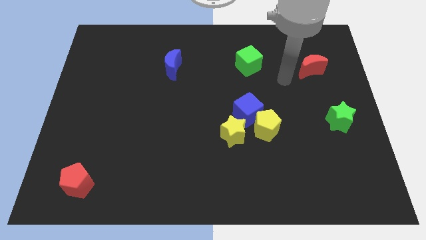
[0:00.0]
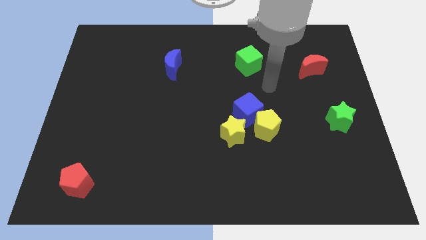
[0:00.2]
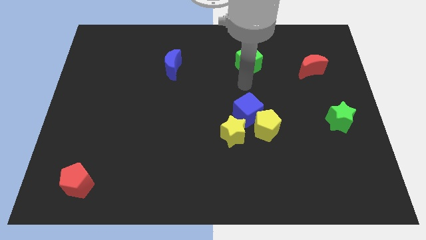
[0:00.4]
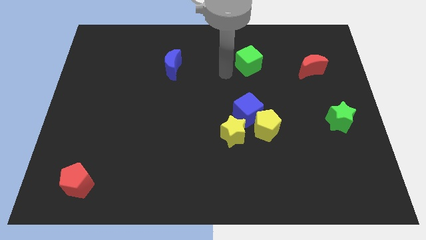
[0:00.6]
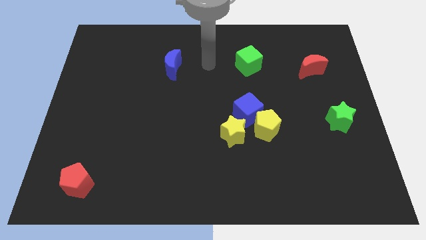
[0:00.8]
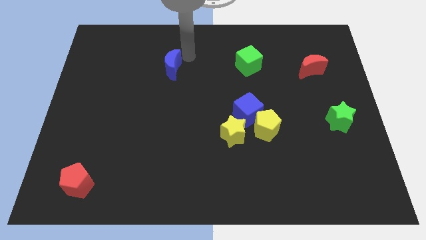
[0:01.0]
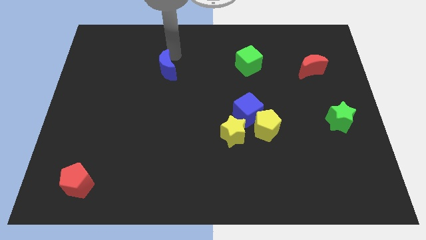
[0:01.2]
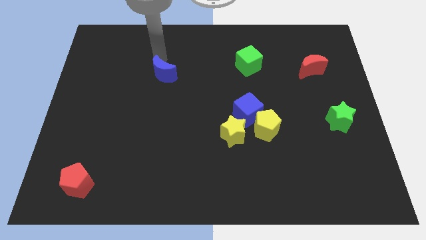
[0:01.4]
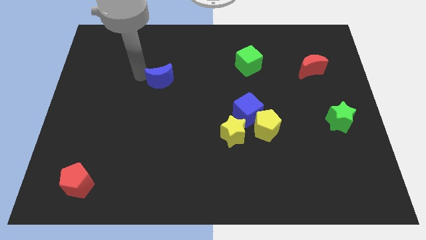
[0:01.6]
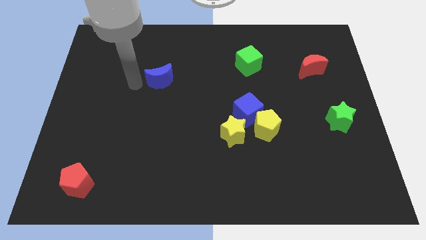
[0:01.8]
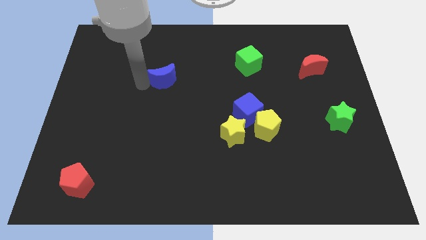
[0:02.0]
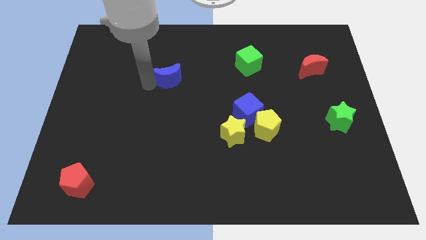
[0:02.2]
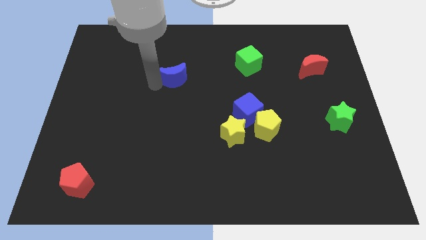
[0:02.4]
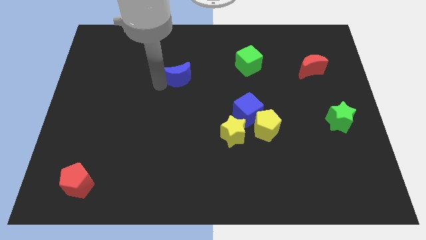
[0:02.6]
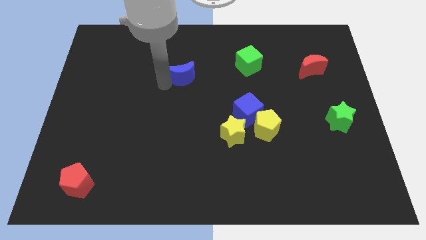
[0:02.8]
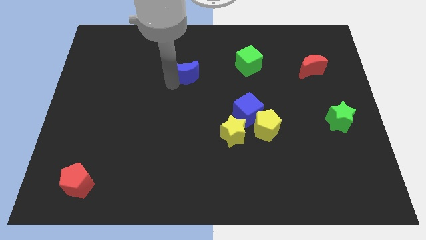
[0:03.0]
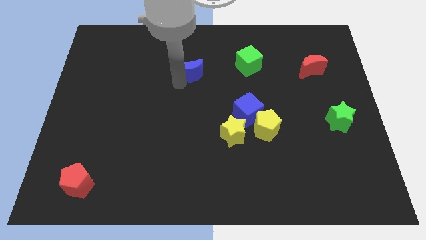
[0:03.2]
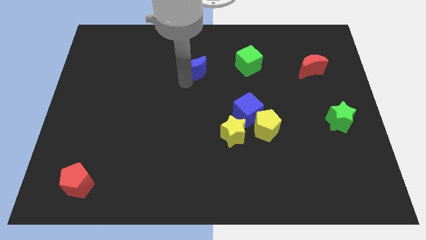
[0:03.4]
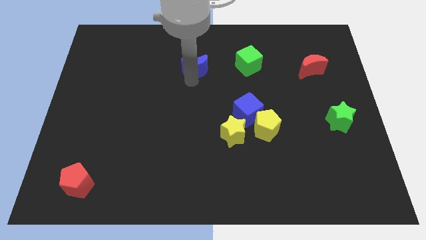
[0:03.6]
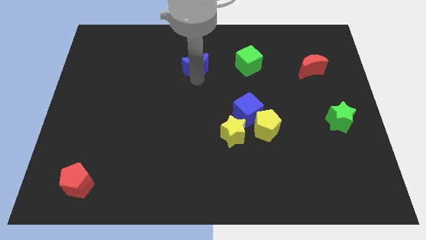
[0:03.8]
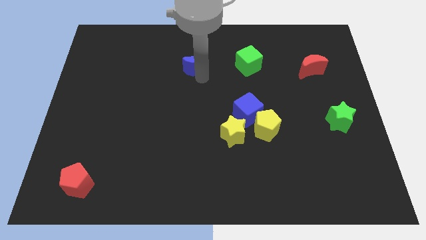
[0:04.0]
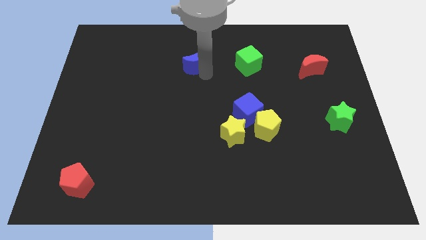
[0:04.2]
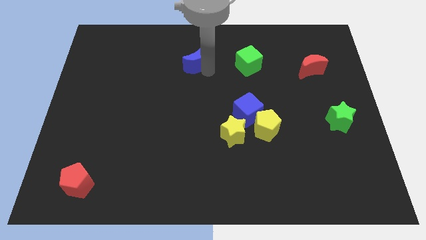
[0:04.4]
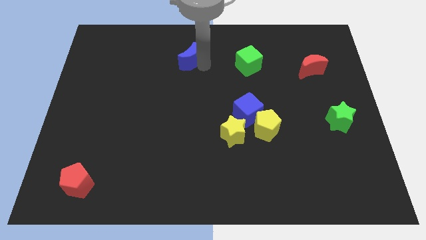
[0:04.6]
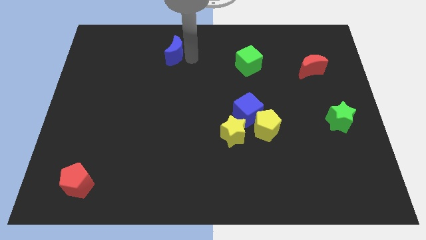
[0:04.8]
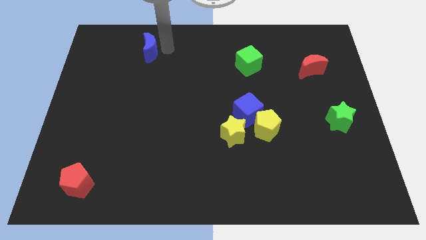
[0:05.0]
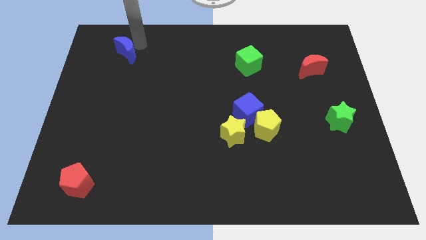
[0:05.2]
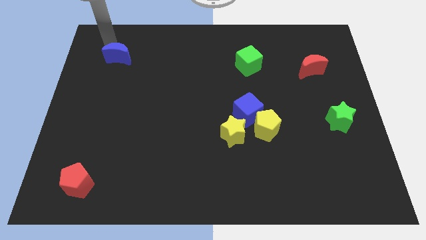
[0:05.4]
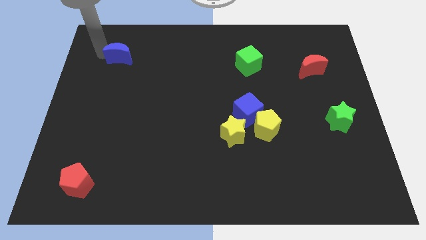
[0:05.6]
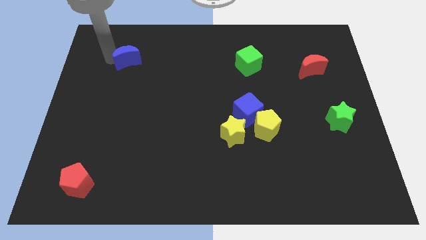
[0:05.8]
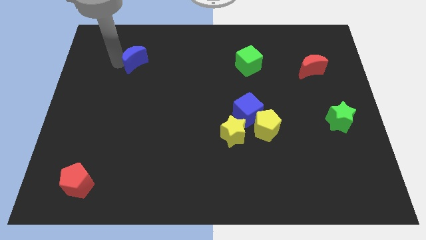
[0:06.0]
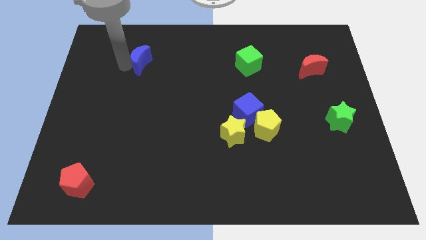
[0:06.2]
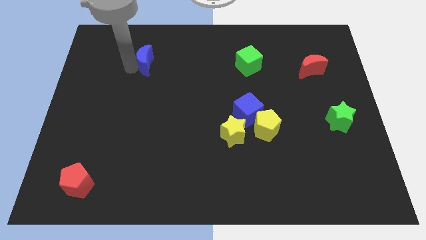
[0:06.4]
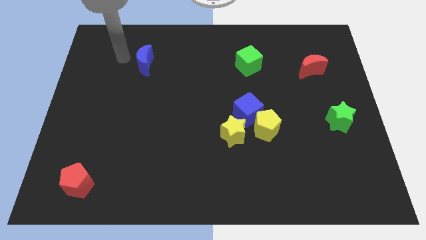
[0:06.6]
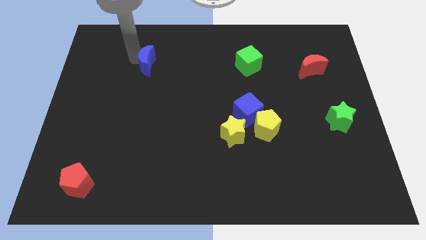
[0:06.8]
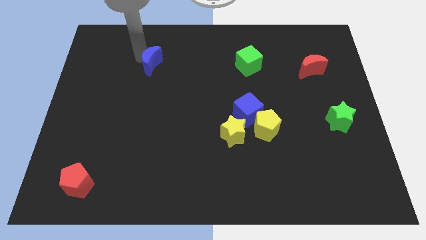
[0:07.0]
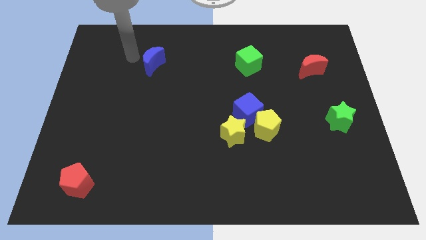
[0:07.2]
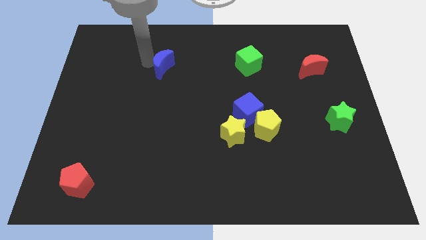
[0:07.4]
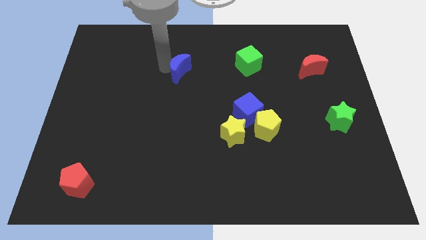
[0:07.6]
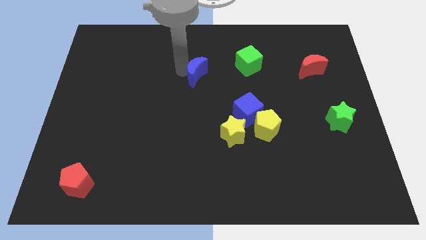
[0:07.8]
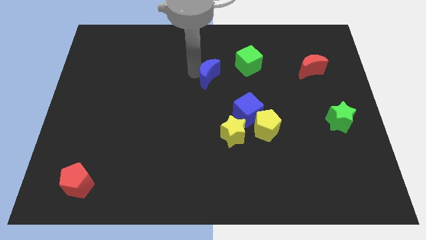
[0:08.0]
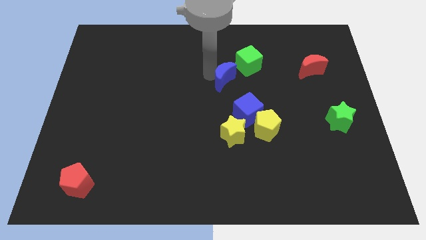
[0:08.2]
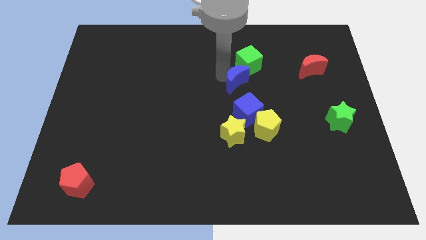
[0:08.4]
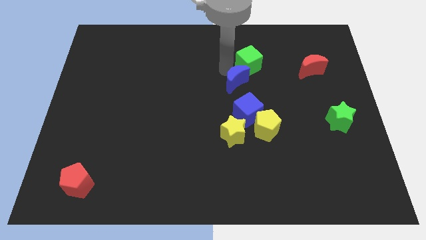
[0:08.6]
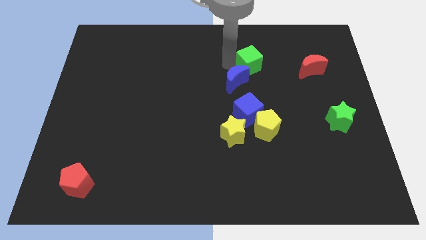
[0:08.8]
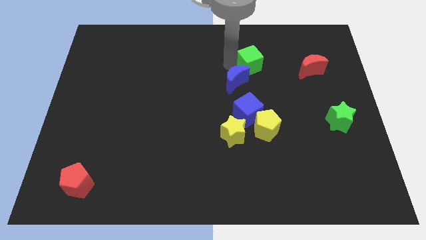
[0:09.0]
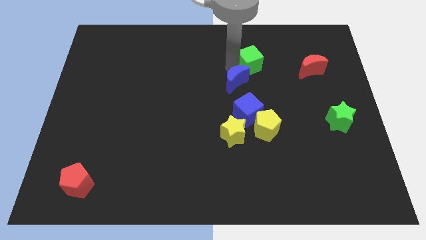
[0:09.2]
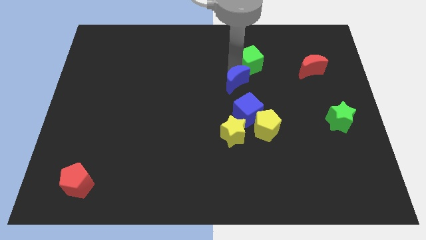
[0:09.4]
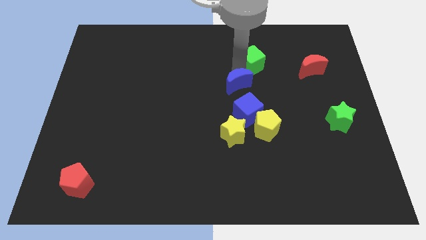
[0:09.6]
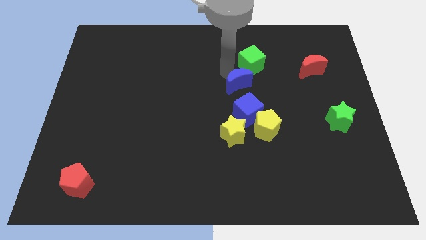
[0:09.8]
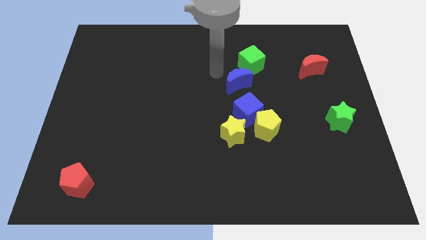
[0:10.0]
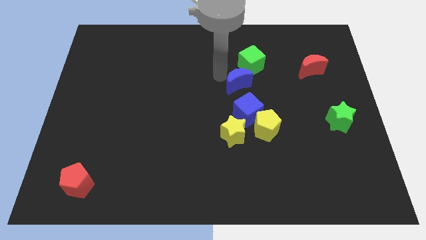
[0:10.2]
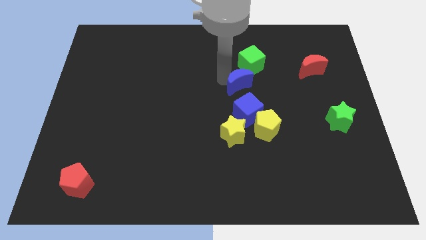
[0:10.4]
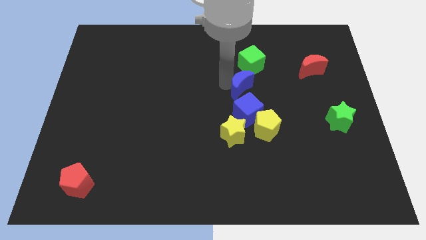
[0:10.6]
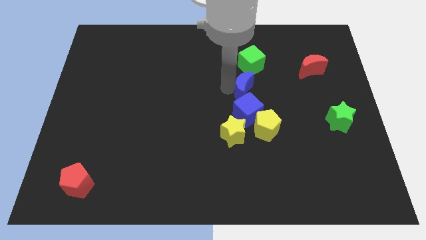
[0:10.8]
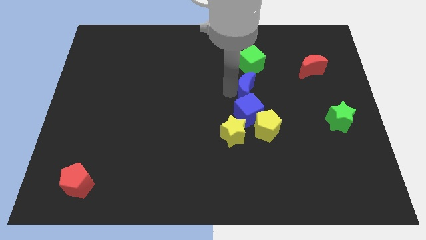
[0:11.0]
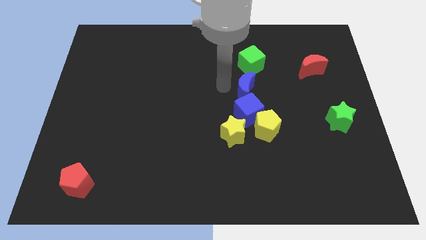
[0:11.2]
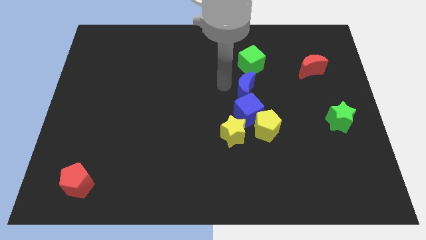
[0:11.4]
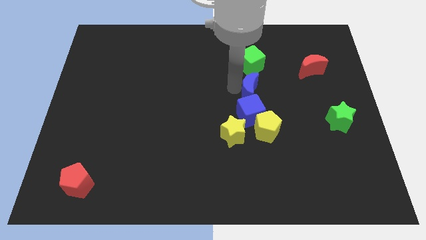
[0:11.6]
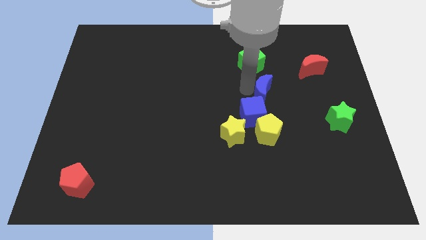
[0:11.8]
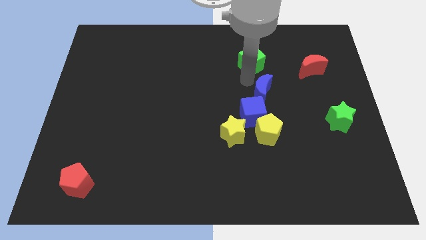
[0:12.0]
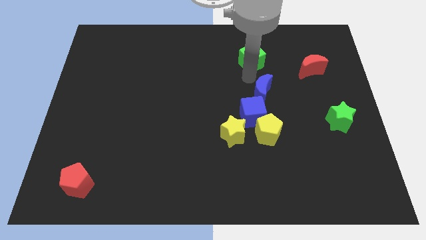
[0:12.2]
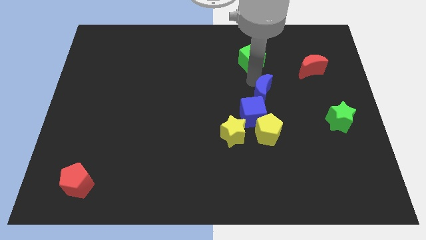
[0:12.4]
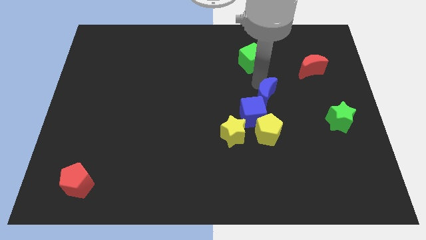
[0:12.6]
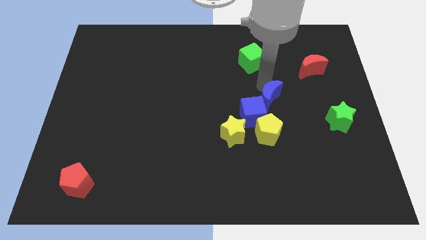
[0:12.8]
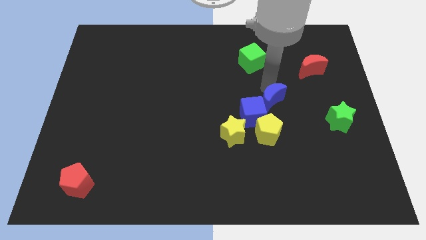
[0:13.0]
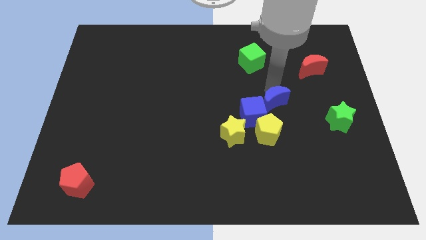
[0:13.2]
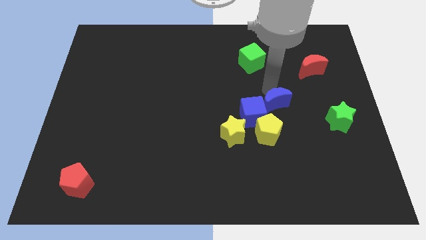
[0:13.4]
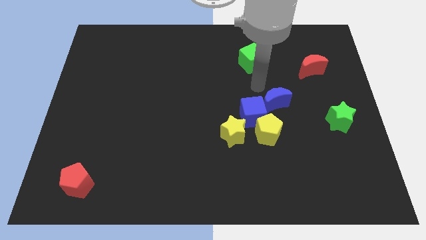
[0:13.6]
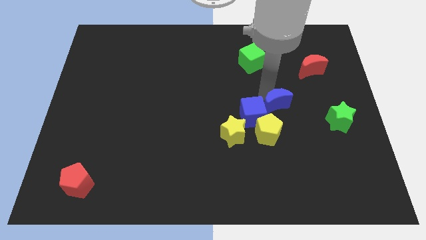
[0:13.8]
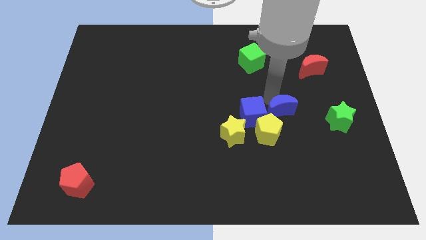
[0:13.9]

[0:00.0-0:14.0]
push the blue moon to the left of the green star
